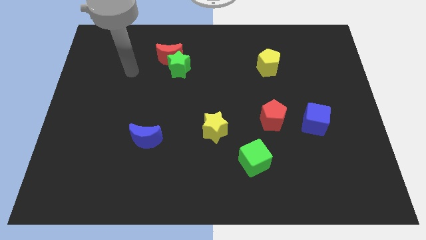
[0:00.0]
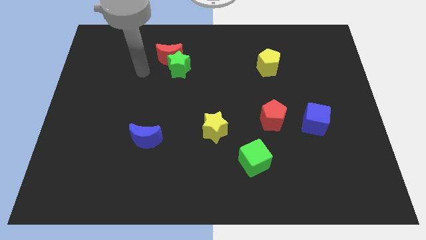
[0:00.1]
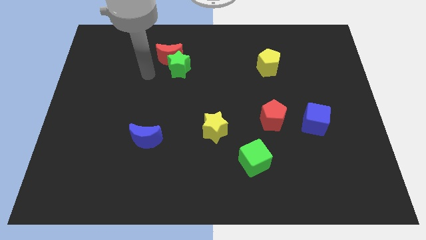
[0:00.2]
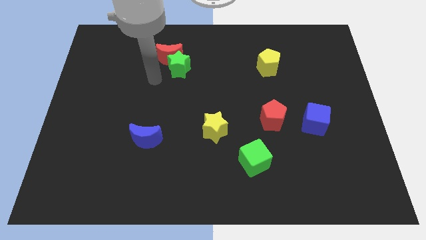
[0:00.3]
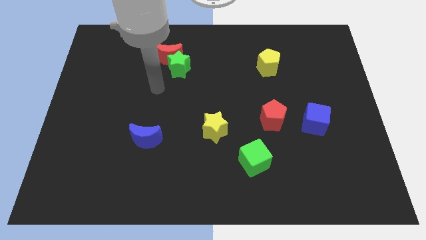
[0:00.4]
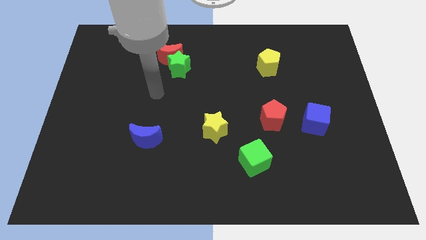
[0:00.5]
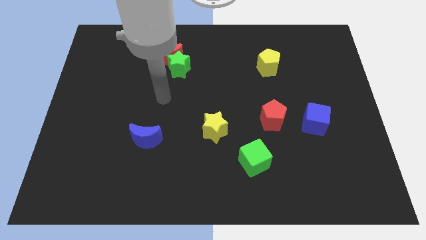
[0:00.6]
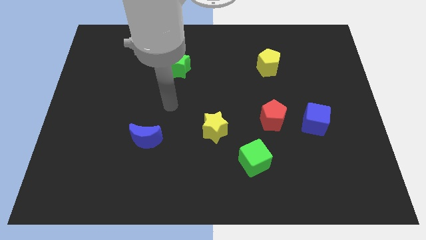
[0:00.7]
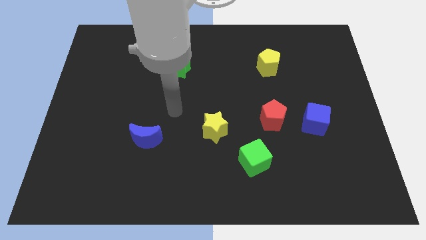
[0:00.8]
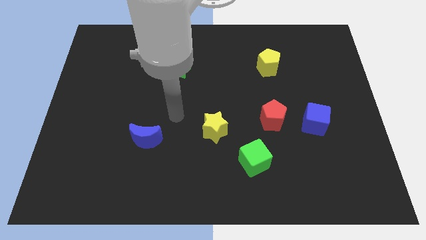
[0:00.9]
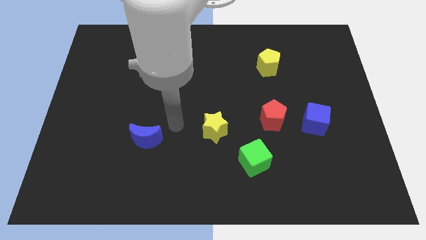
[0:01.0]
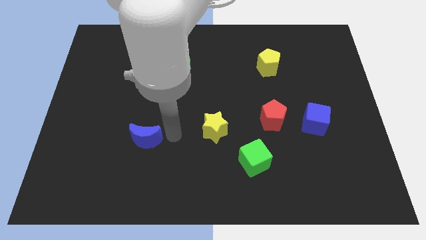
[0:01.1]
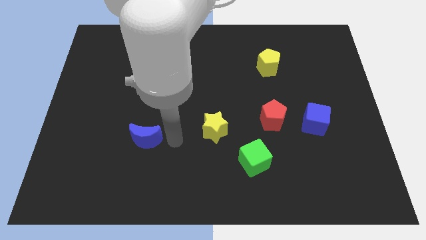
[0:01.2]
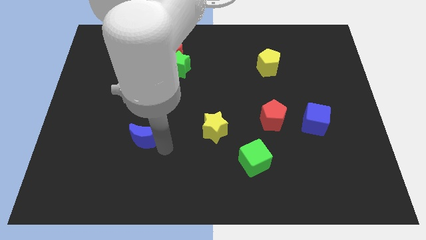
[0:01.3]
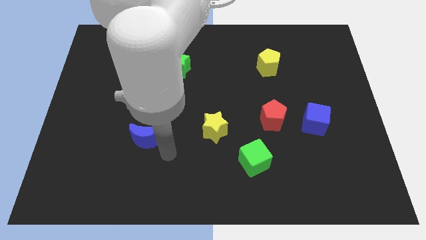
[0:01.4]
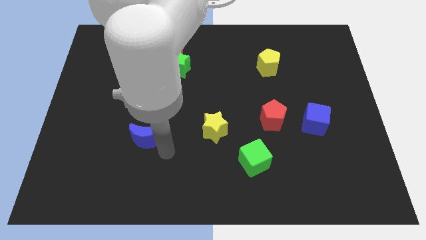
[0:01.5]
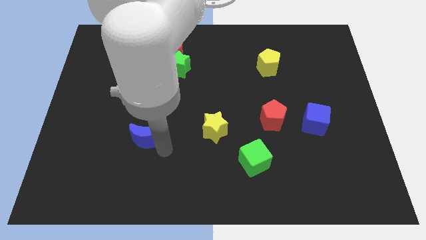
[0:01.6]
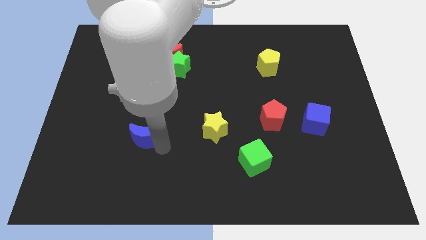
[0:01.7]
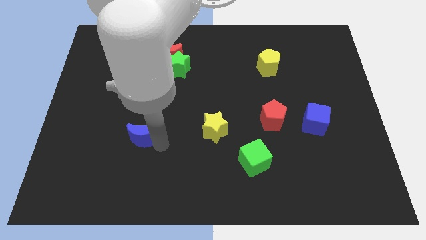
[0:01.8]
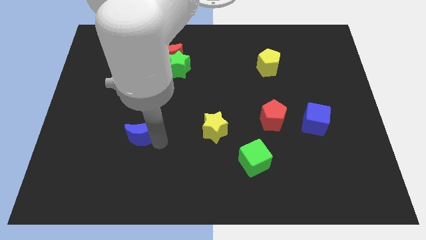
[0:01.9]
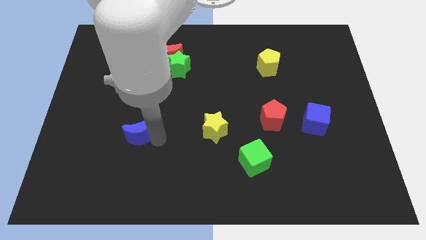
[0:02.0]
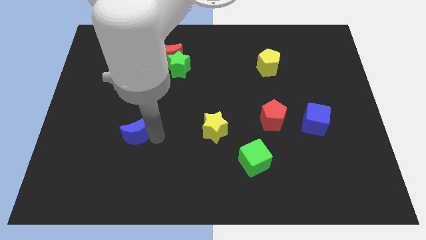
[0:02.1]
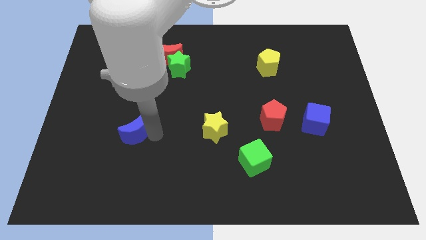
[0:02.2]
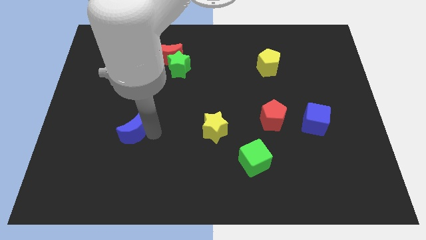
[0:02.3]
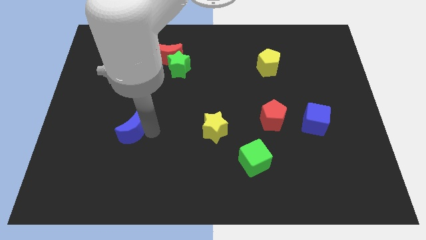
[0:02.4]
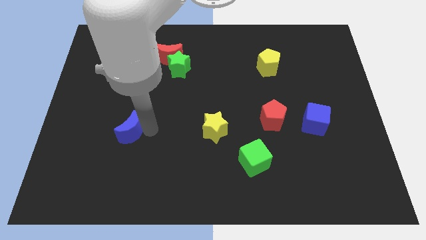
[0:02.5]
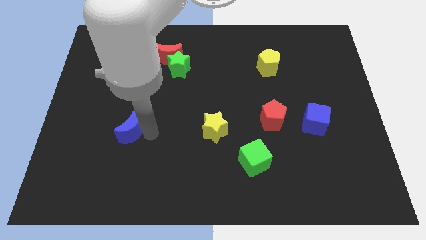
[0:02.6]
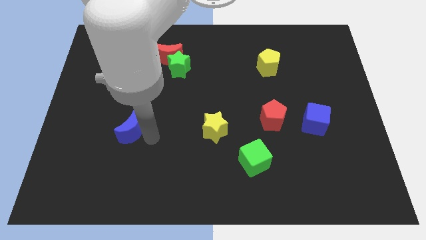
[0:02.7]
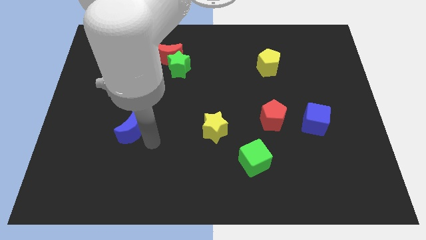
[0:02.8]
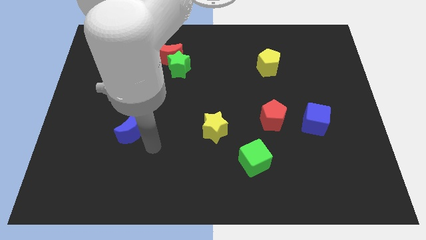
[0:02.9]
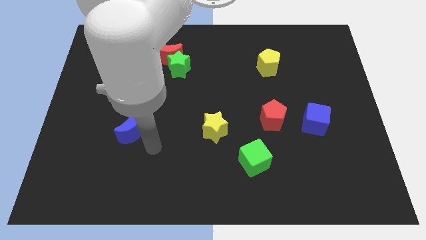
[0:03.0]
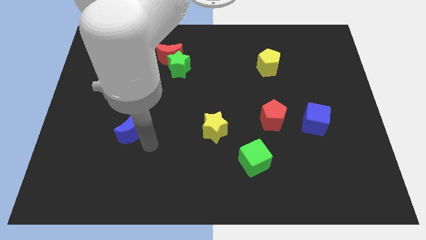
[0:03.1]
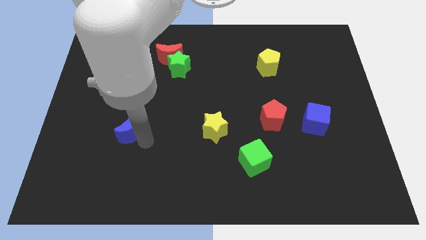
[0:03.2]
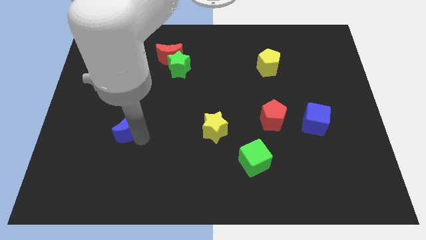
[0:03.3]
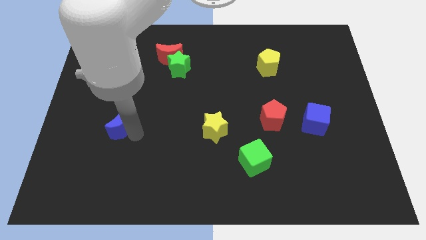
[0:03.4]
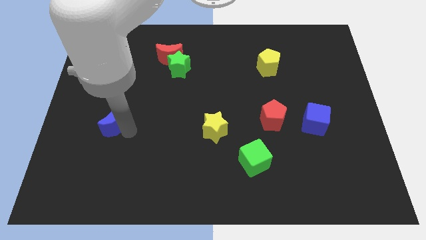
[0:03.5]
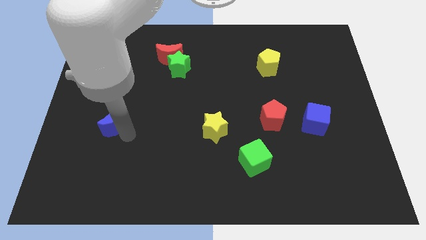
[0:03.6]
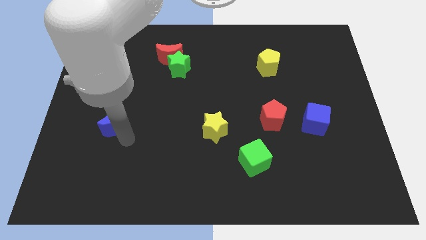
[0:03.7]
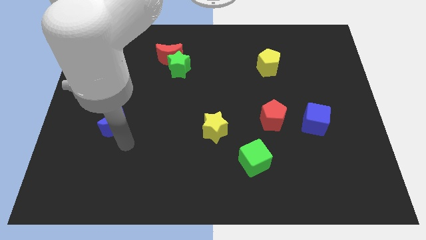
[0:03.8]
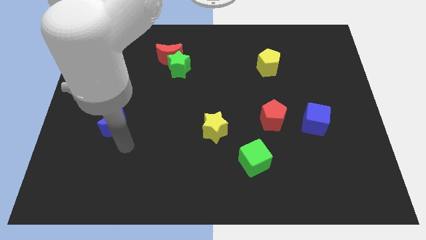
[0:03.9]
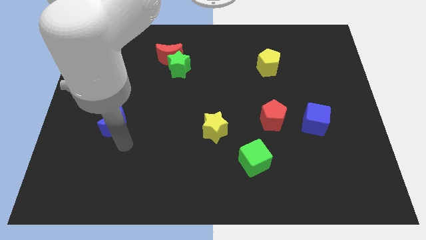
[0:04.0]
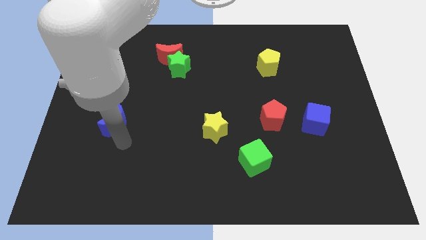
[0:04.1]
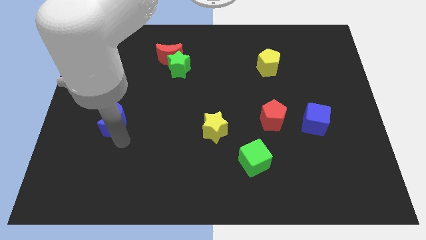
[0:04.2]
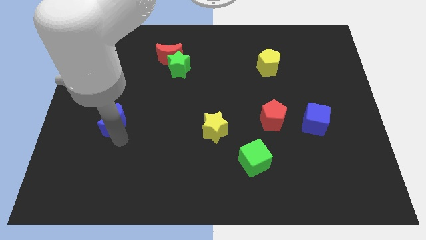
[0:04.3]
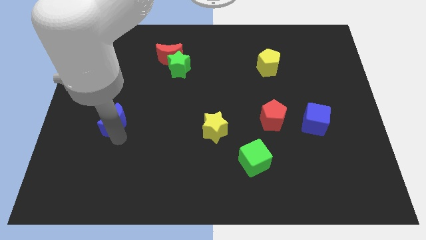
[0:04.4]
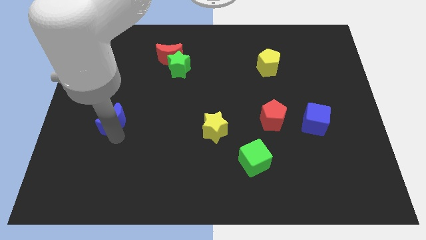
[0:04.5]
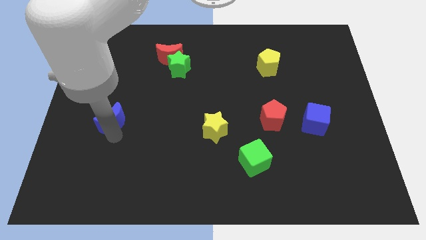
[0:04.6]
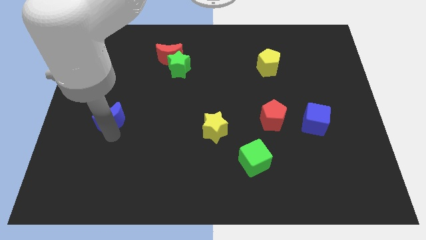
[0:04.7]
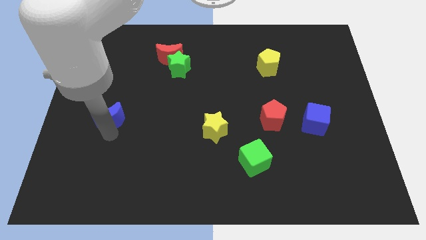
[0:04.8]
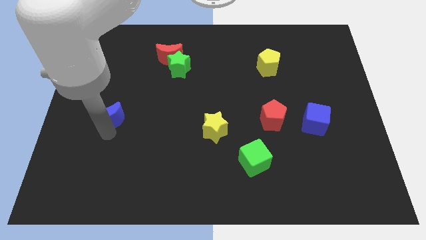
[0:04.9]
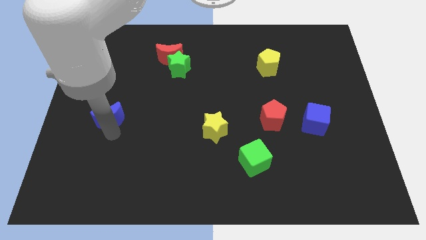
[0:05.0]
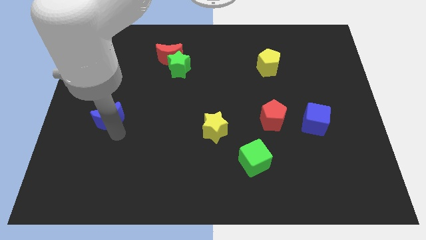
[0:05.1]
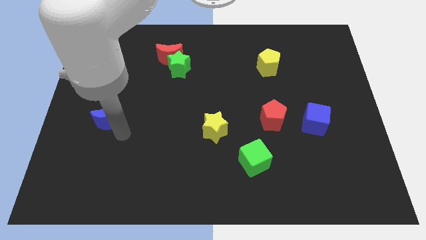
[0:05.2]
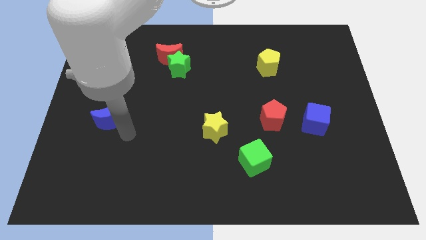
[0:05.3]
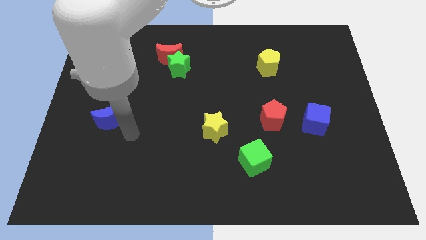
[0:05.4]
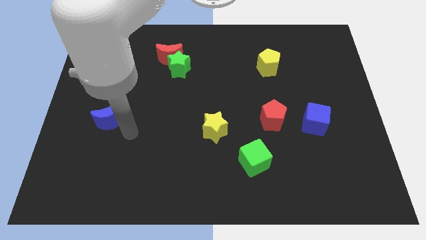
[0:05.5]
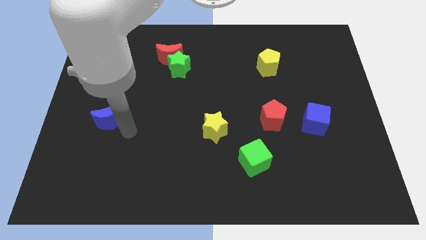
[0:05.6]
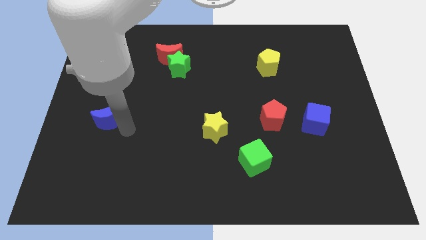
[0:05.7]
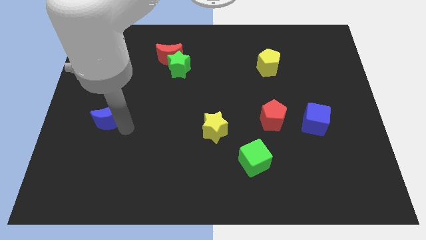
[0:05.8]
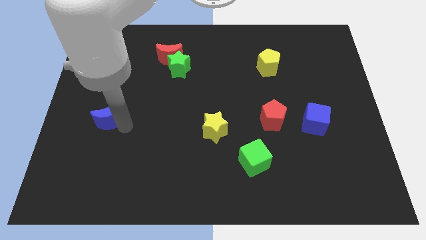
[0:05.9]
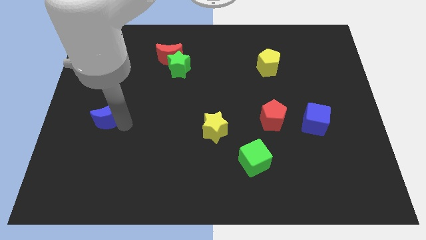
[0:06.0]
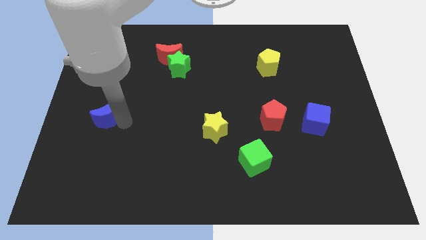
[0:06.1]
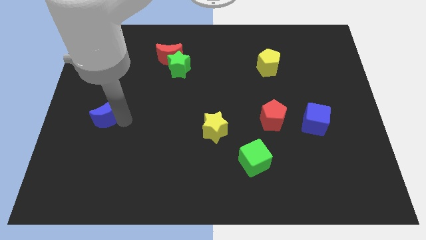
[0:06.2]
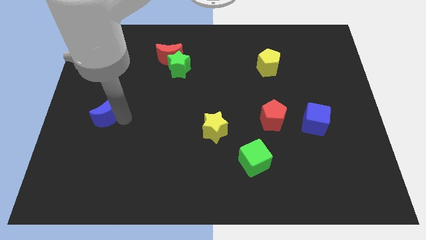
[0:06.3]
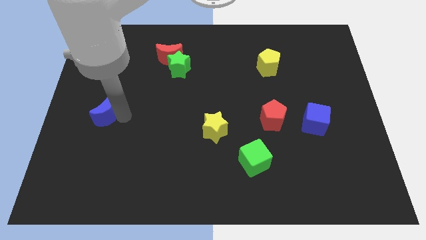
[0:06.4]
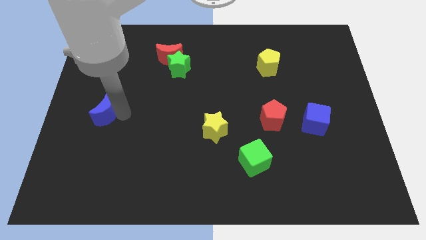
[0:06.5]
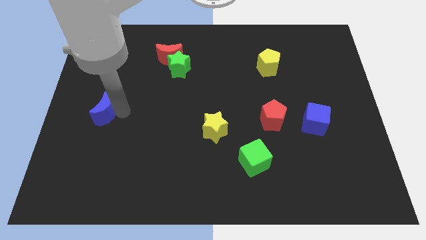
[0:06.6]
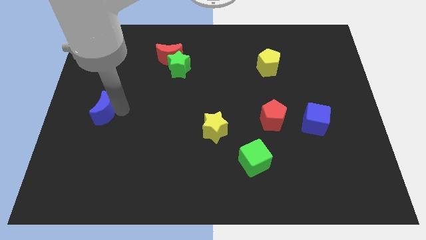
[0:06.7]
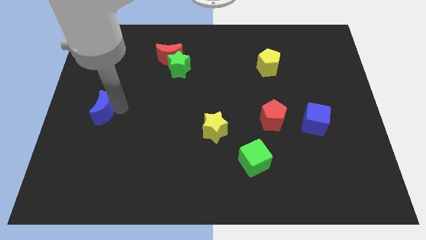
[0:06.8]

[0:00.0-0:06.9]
move the blue moon to the center left

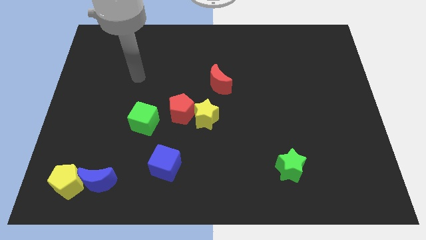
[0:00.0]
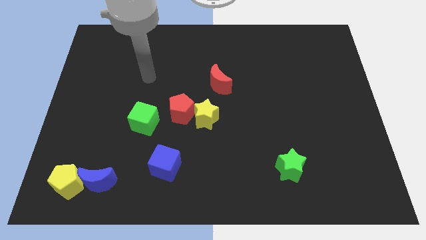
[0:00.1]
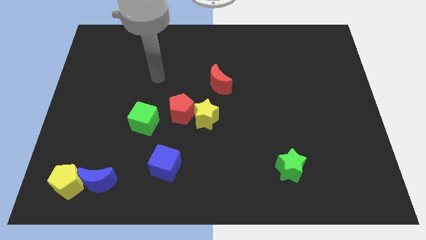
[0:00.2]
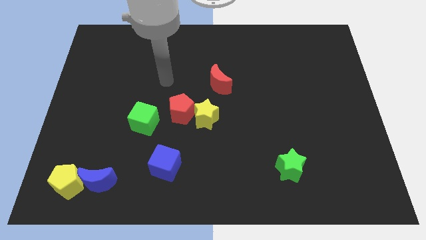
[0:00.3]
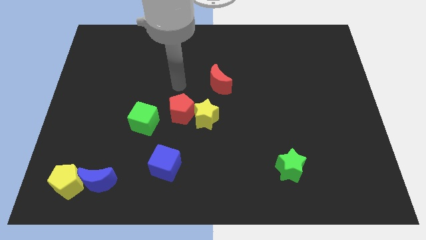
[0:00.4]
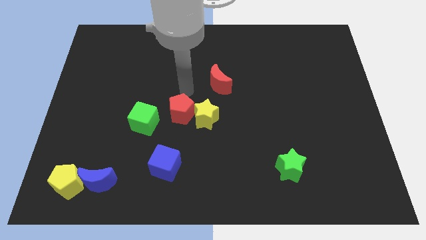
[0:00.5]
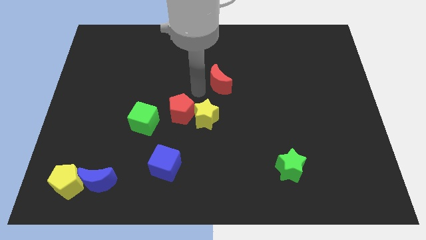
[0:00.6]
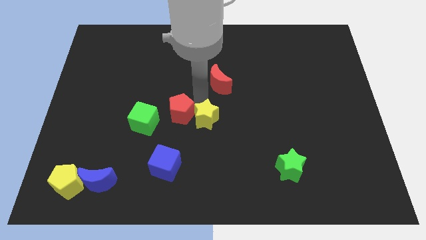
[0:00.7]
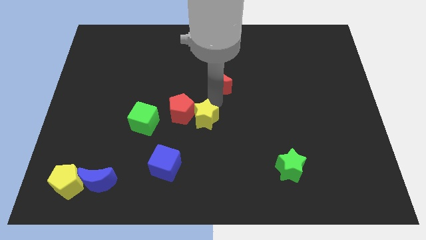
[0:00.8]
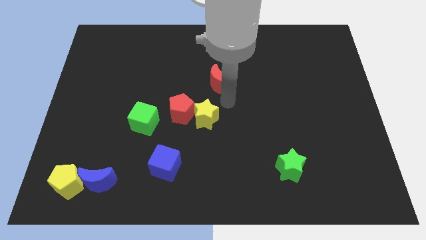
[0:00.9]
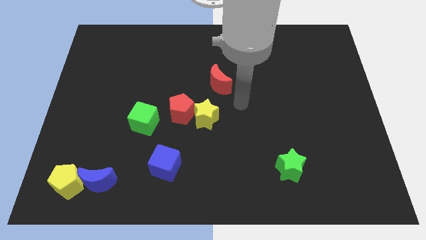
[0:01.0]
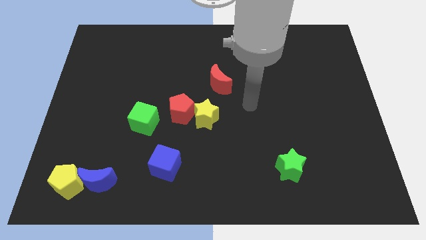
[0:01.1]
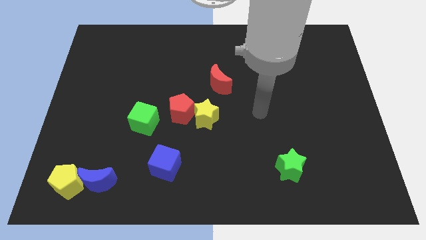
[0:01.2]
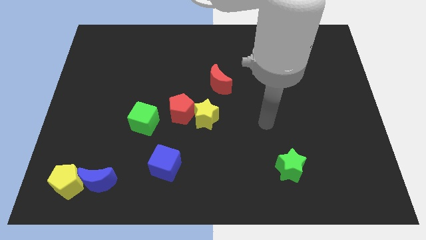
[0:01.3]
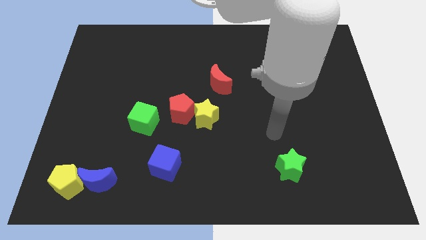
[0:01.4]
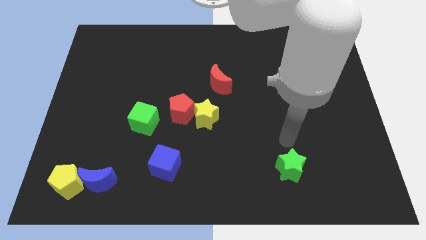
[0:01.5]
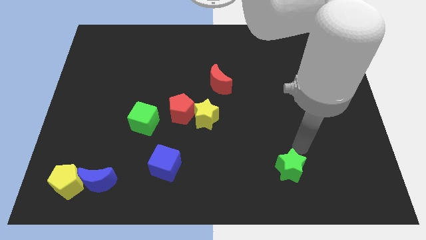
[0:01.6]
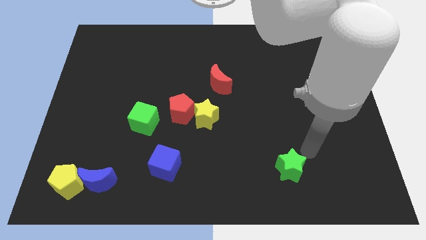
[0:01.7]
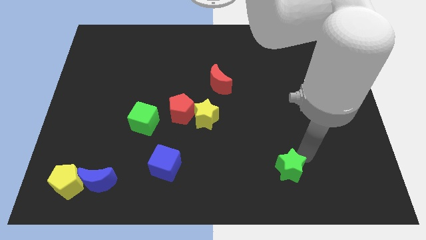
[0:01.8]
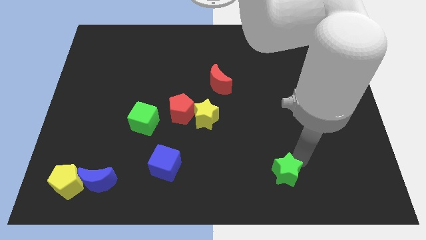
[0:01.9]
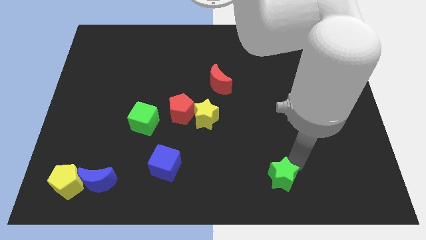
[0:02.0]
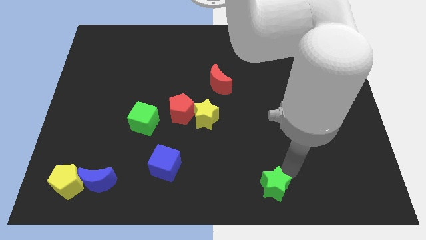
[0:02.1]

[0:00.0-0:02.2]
move the green star to the bottom
